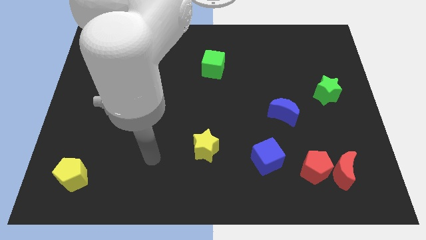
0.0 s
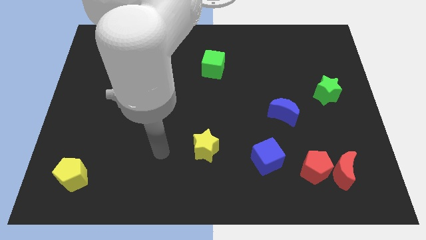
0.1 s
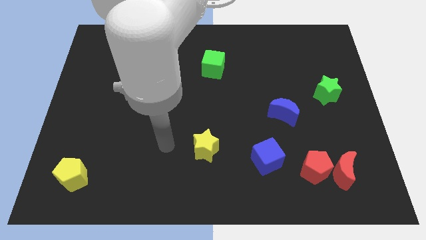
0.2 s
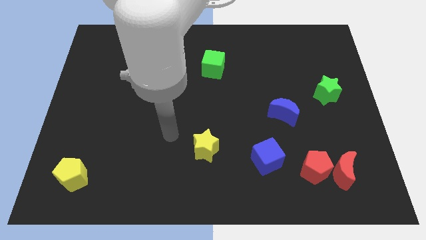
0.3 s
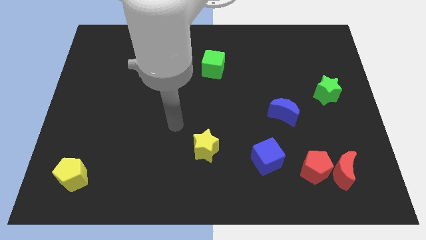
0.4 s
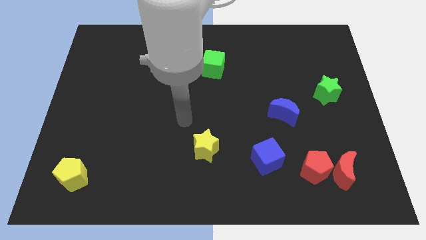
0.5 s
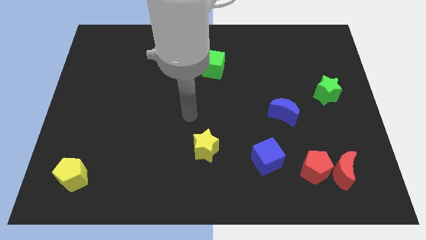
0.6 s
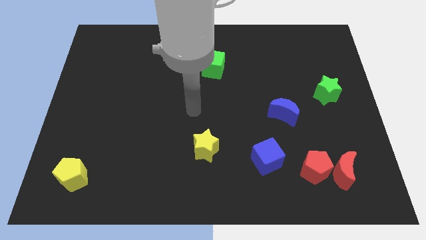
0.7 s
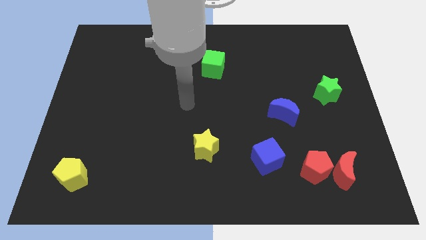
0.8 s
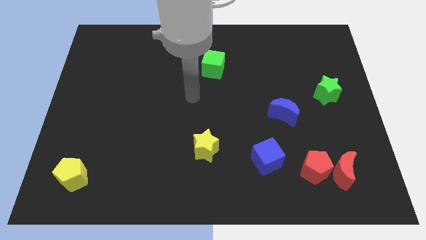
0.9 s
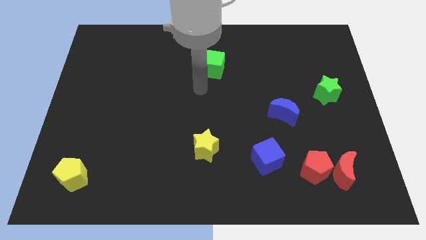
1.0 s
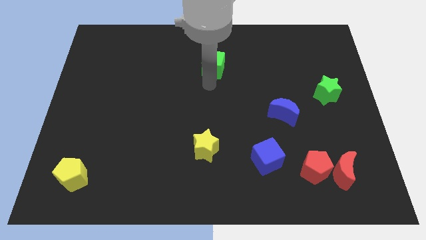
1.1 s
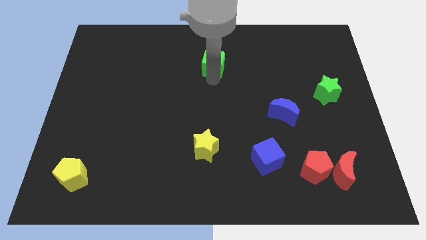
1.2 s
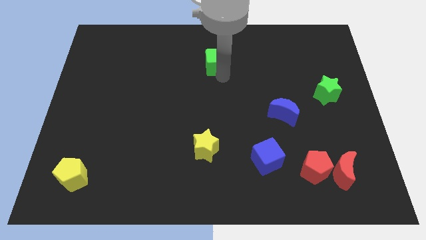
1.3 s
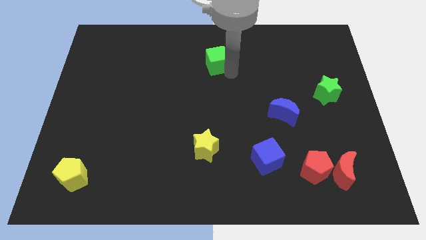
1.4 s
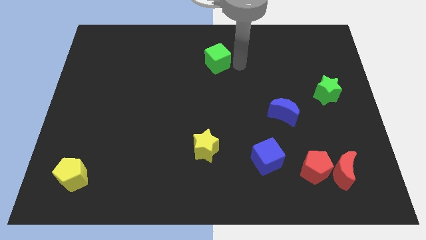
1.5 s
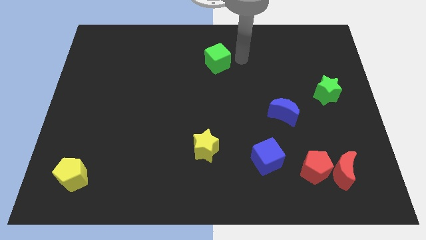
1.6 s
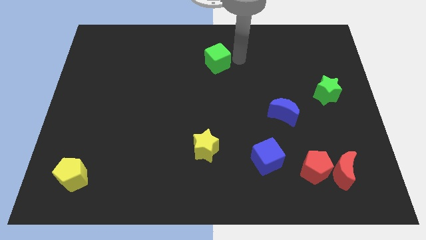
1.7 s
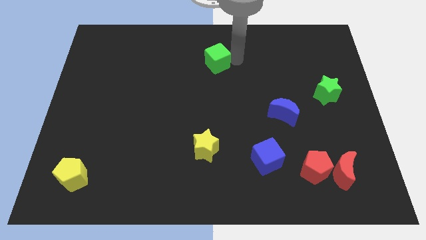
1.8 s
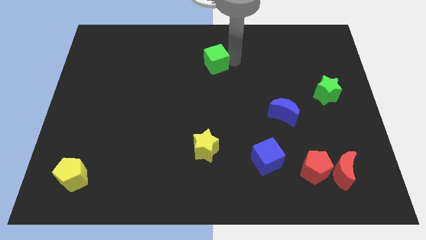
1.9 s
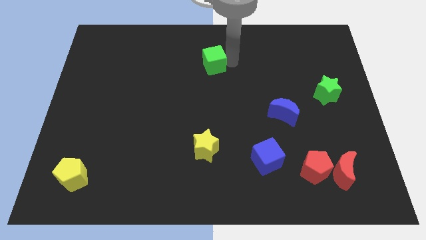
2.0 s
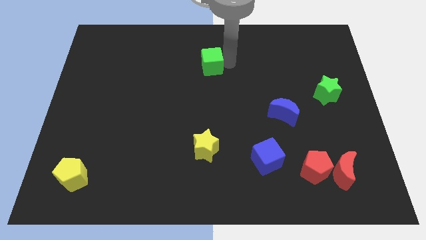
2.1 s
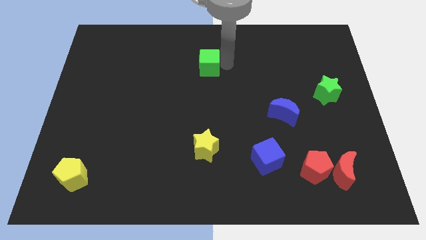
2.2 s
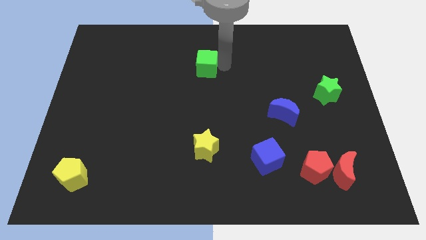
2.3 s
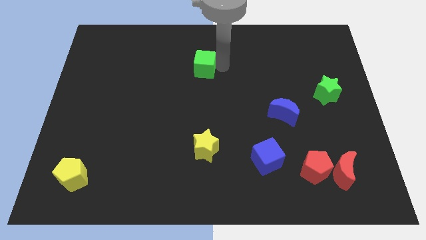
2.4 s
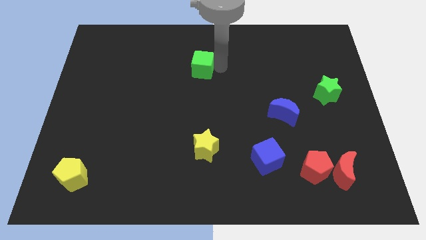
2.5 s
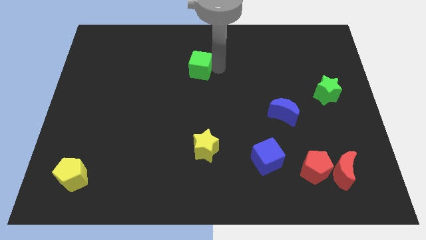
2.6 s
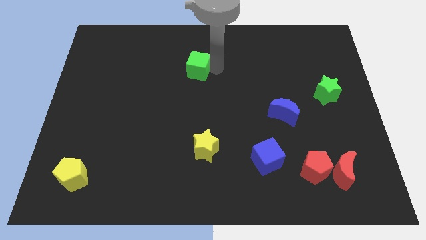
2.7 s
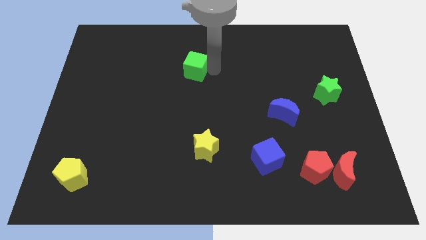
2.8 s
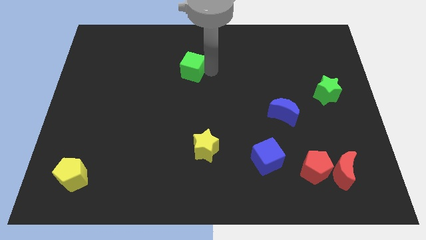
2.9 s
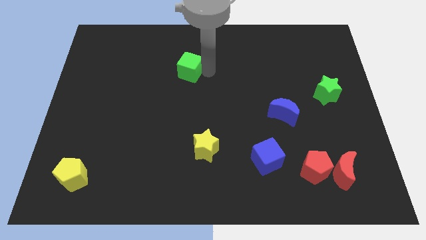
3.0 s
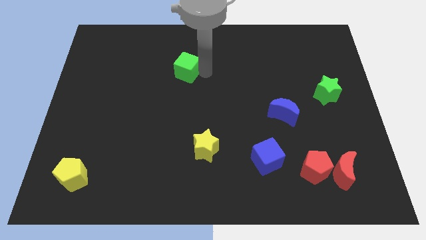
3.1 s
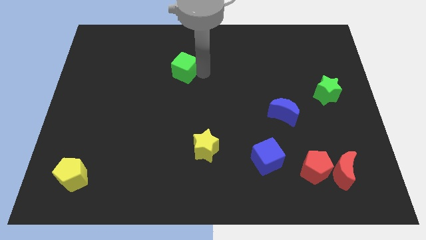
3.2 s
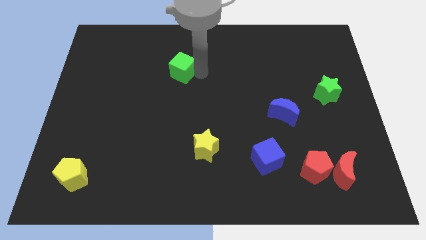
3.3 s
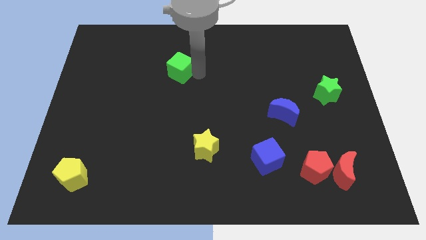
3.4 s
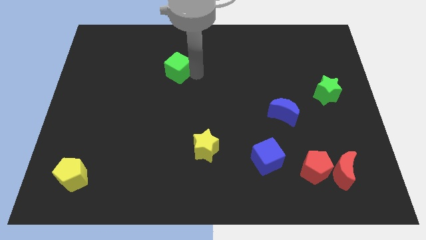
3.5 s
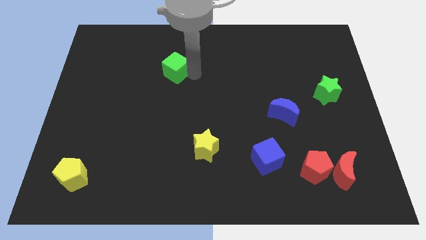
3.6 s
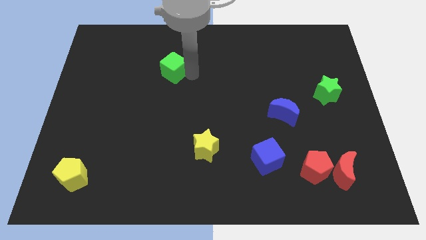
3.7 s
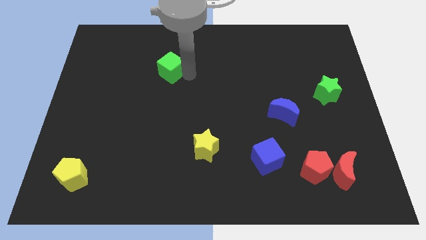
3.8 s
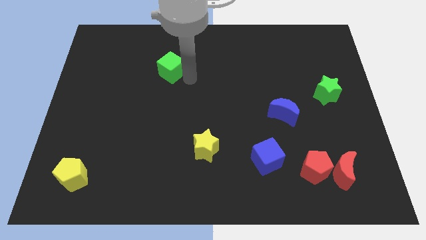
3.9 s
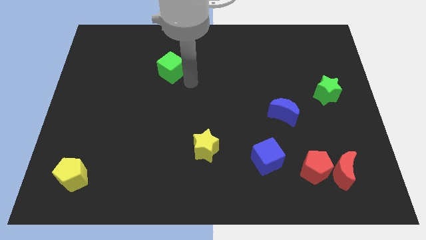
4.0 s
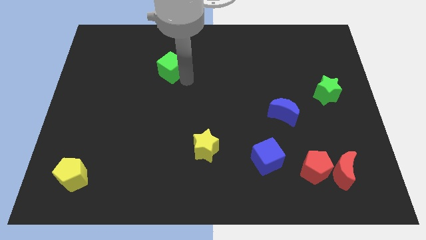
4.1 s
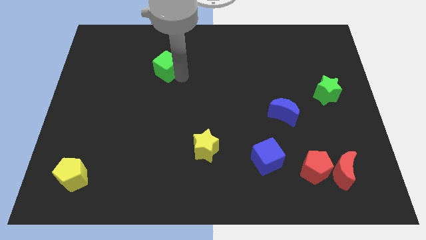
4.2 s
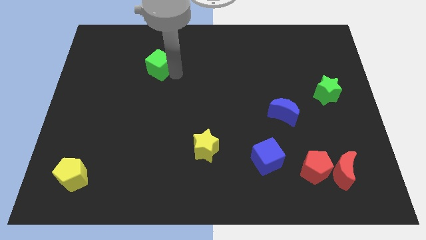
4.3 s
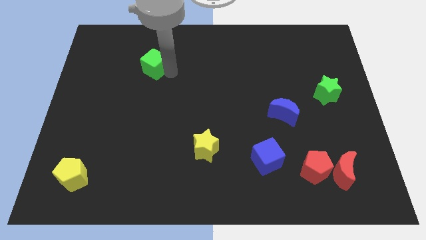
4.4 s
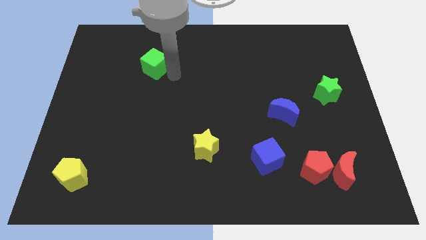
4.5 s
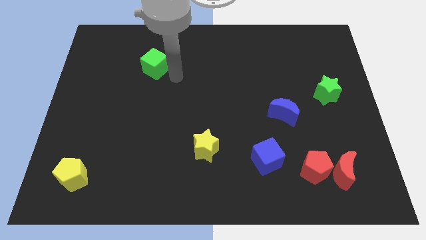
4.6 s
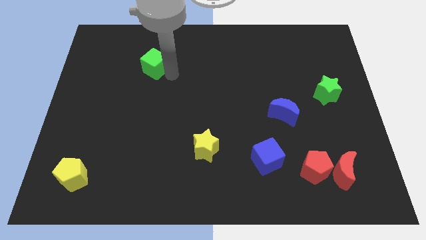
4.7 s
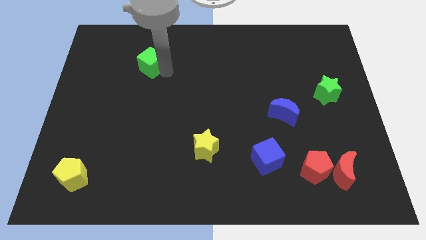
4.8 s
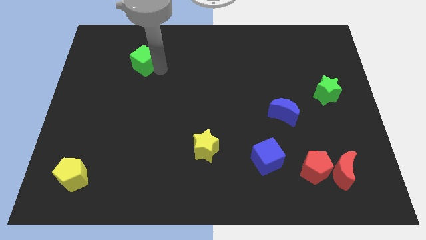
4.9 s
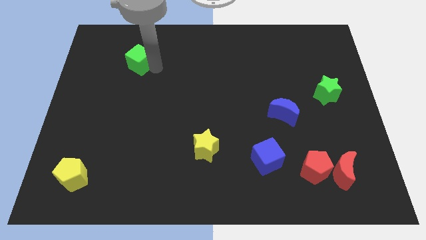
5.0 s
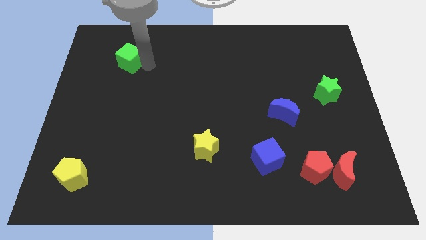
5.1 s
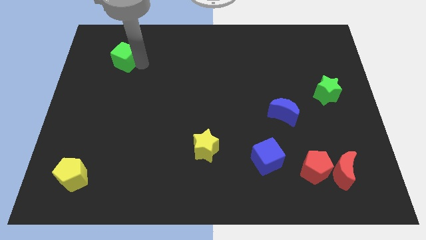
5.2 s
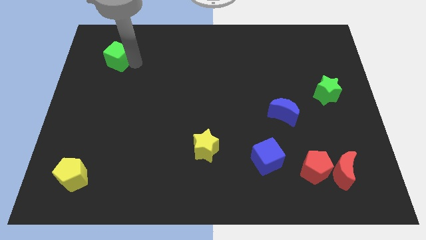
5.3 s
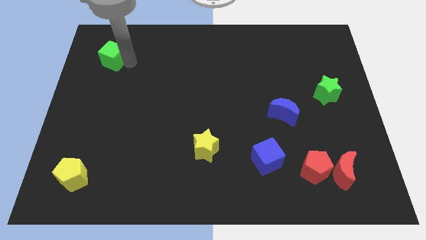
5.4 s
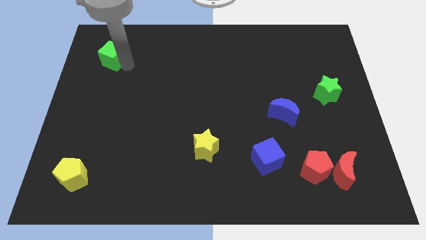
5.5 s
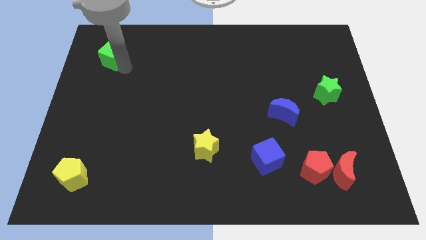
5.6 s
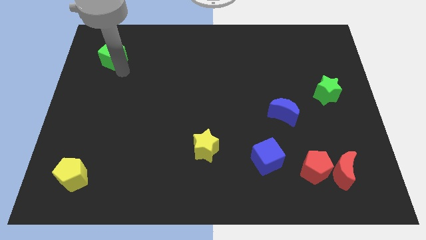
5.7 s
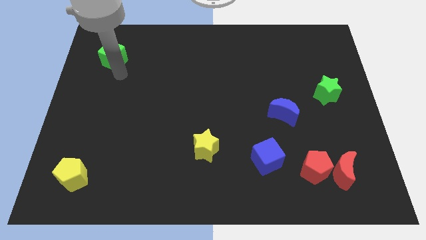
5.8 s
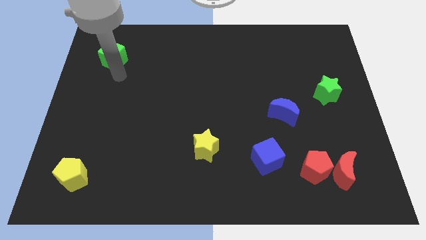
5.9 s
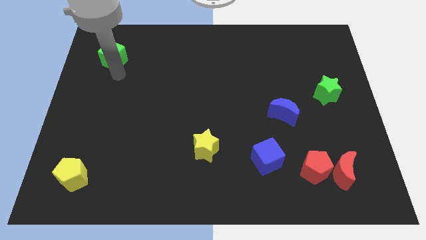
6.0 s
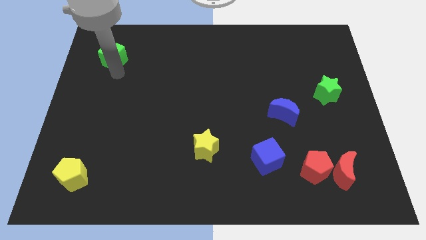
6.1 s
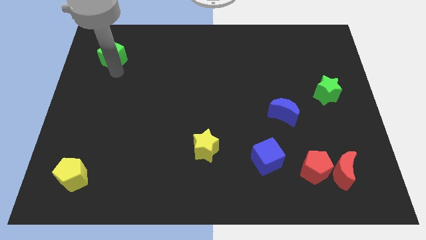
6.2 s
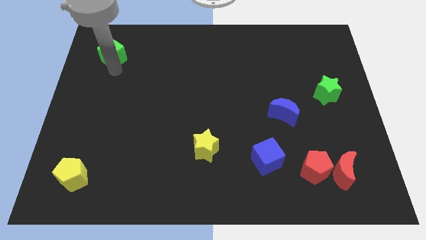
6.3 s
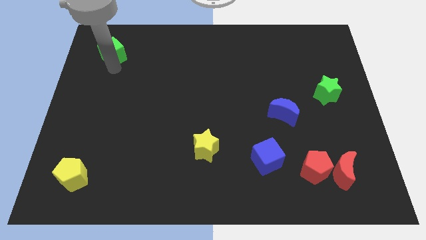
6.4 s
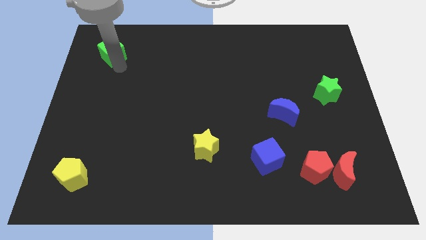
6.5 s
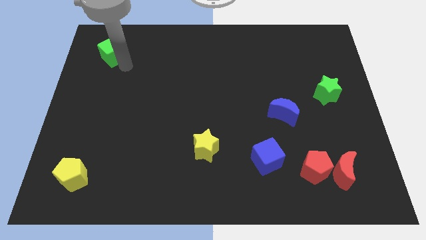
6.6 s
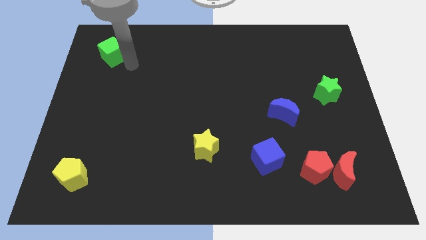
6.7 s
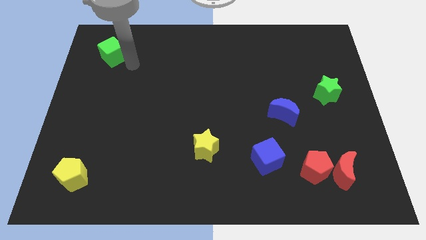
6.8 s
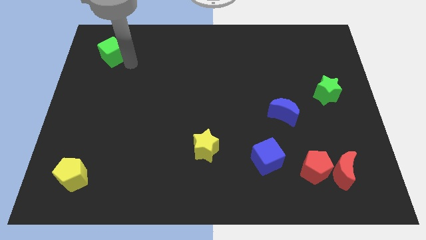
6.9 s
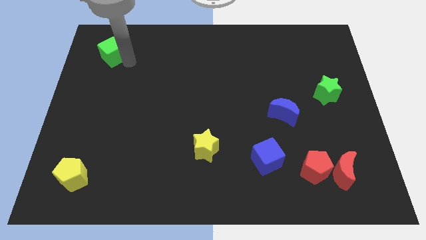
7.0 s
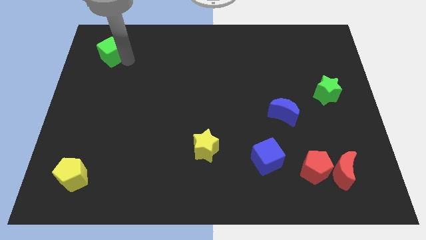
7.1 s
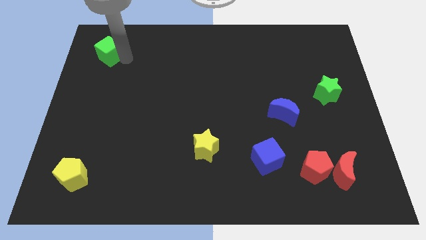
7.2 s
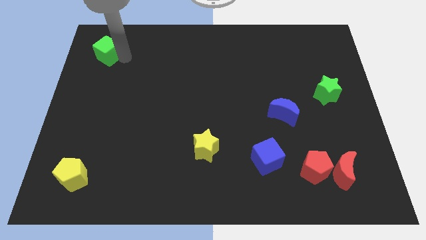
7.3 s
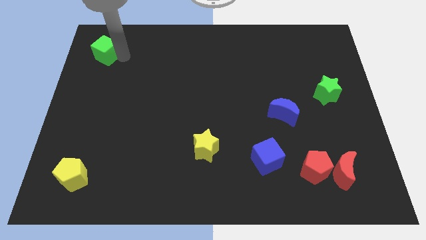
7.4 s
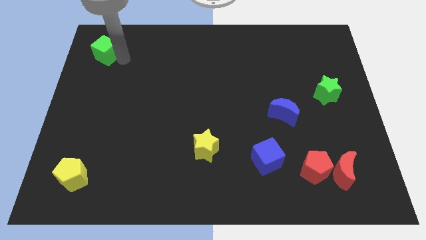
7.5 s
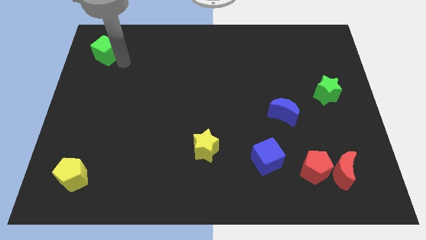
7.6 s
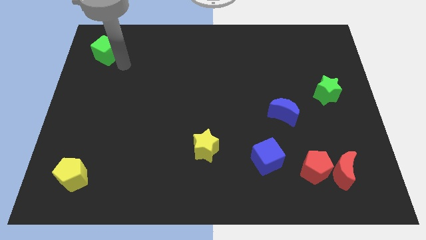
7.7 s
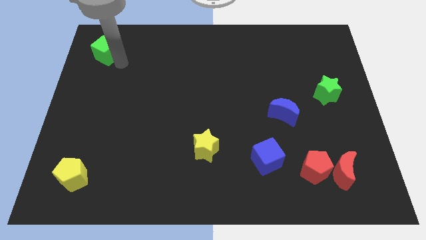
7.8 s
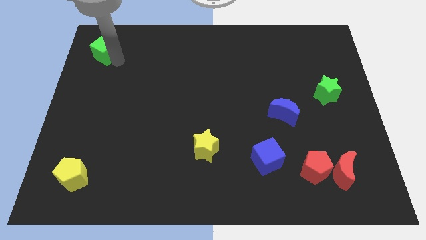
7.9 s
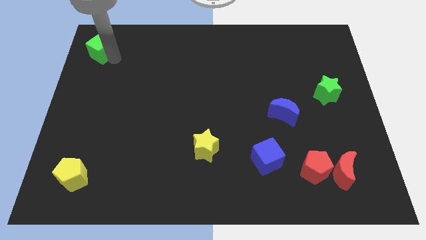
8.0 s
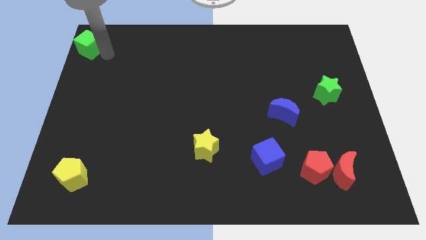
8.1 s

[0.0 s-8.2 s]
move the green cube to the top left of the board
